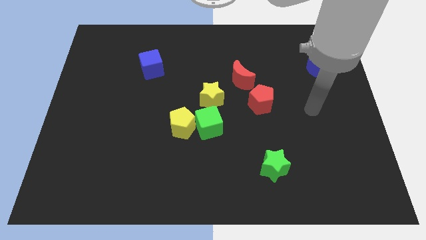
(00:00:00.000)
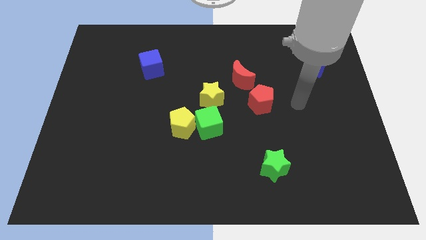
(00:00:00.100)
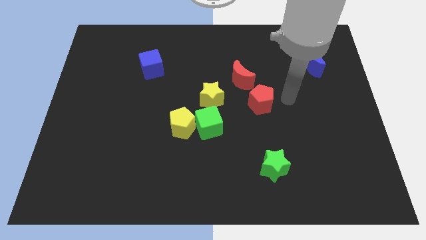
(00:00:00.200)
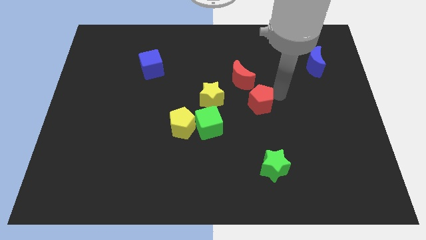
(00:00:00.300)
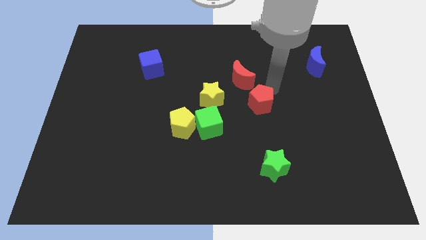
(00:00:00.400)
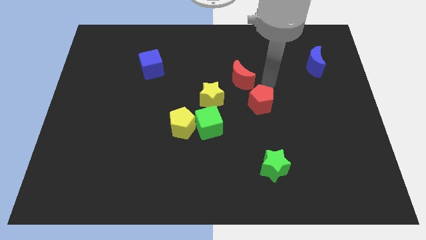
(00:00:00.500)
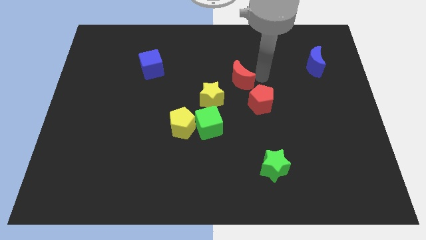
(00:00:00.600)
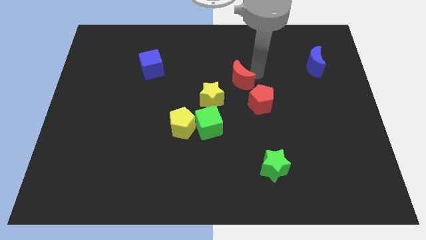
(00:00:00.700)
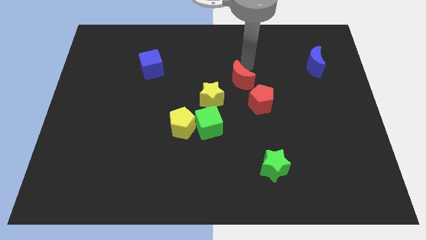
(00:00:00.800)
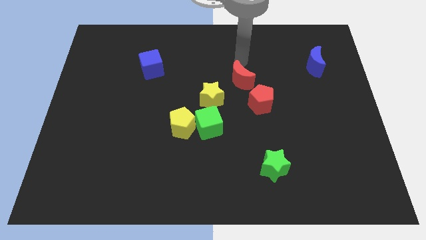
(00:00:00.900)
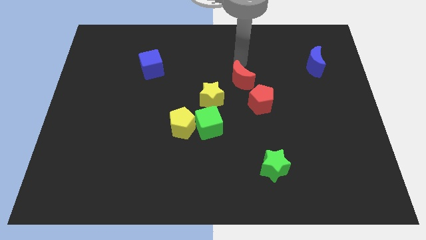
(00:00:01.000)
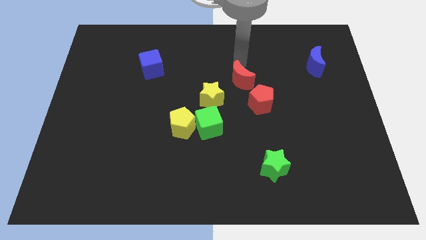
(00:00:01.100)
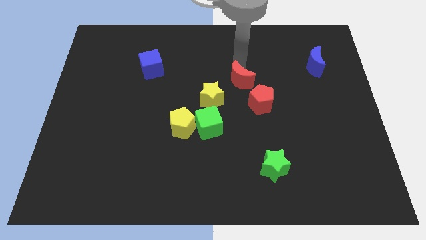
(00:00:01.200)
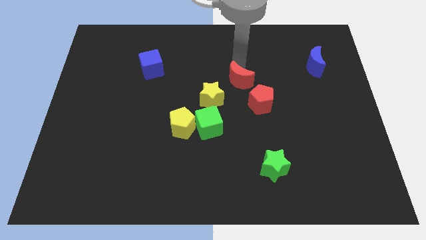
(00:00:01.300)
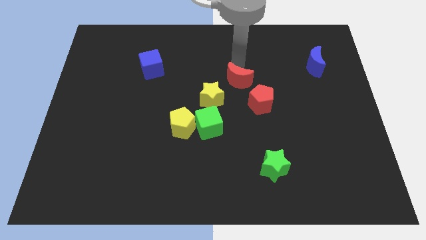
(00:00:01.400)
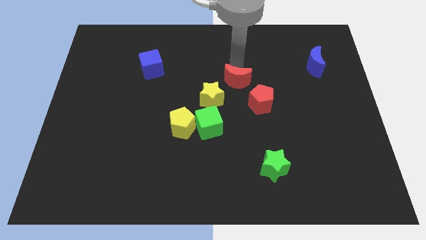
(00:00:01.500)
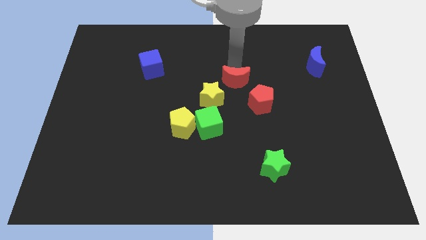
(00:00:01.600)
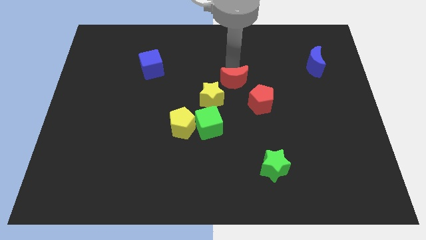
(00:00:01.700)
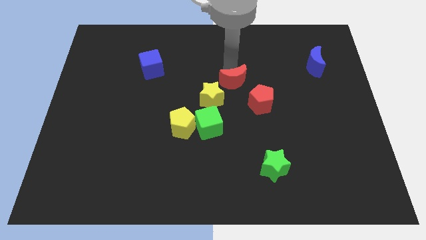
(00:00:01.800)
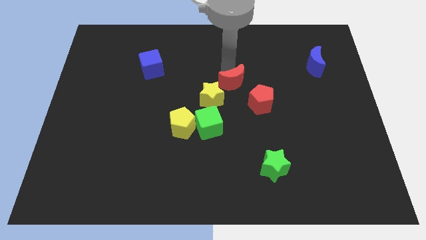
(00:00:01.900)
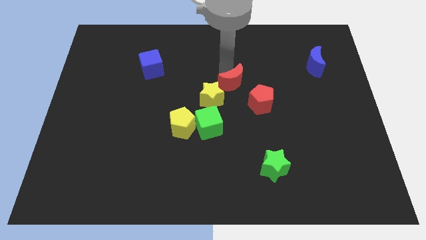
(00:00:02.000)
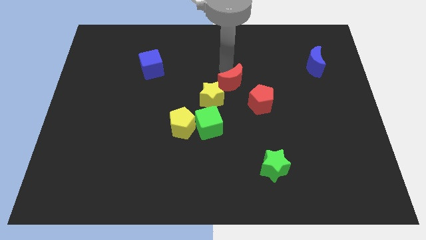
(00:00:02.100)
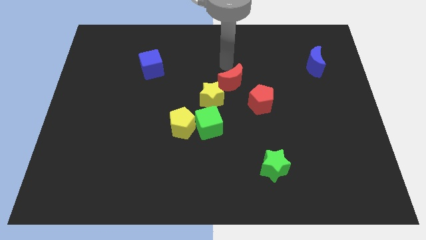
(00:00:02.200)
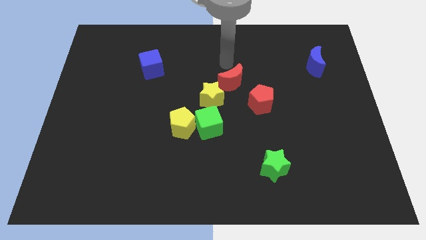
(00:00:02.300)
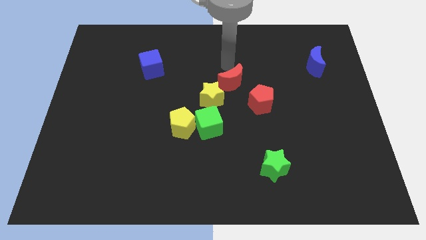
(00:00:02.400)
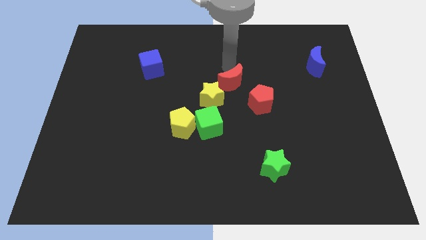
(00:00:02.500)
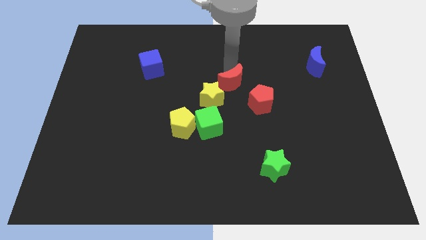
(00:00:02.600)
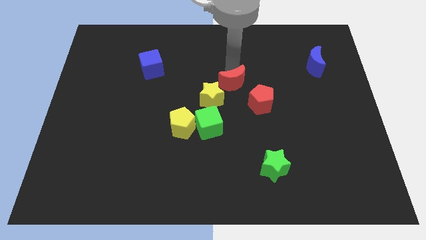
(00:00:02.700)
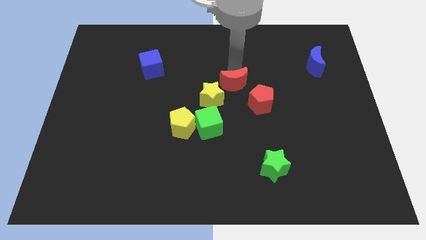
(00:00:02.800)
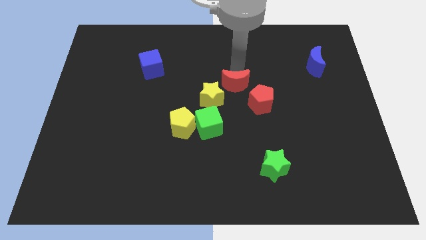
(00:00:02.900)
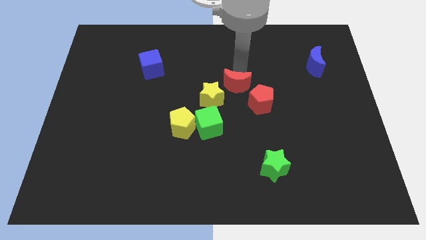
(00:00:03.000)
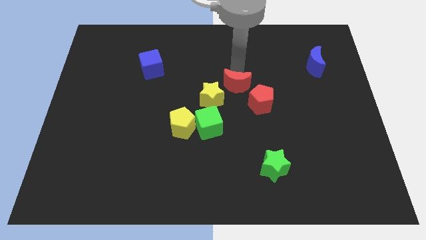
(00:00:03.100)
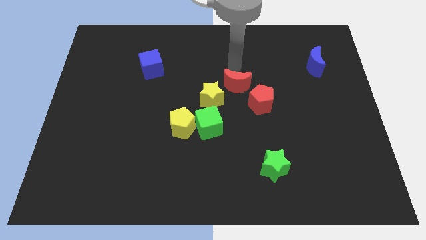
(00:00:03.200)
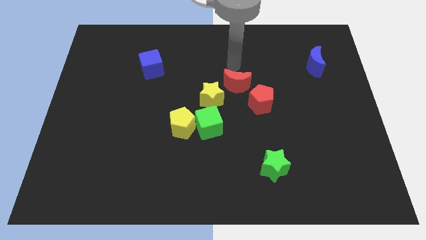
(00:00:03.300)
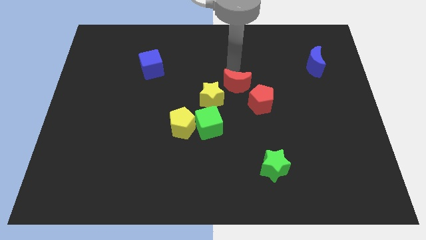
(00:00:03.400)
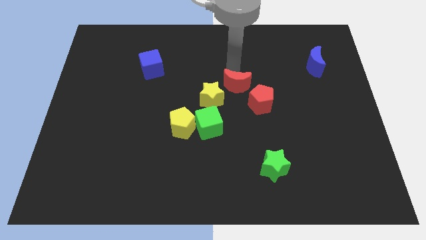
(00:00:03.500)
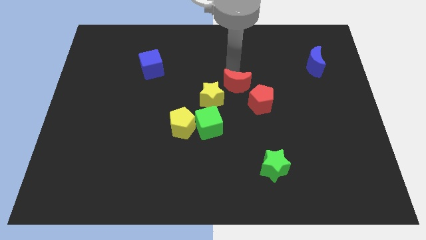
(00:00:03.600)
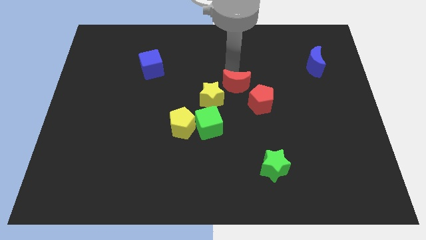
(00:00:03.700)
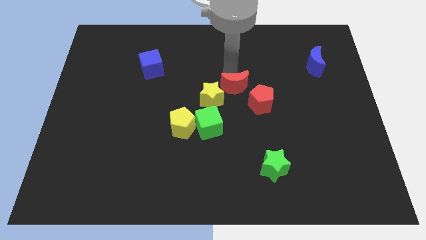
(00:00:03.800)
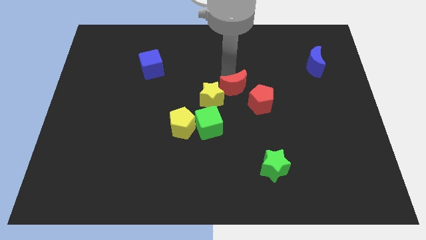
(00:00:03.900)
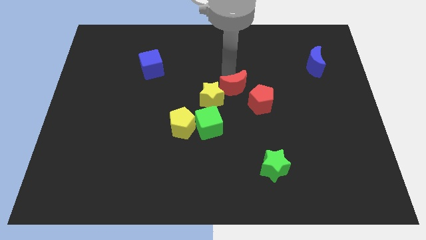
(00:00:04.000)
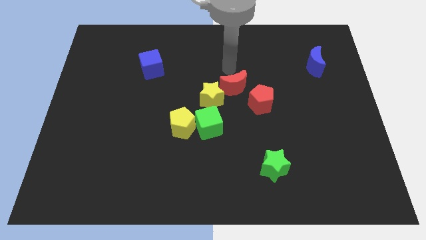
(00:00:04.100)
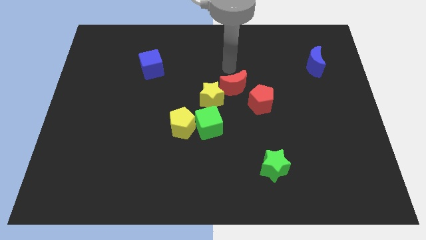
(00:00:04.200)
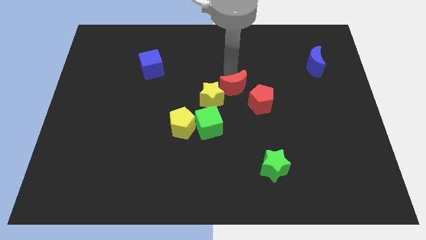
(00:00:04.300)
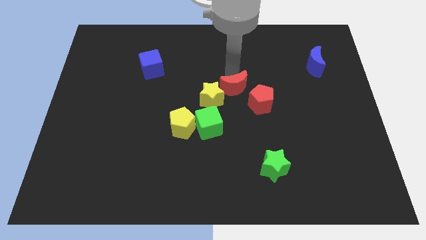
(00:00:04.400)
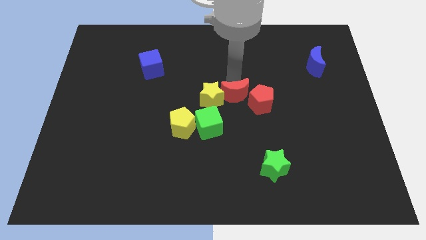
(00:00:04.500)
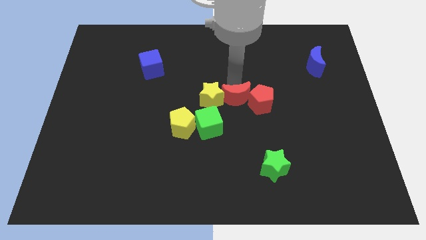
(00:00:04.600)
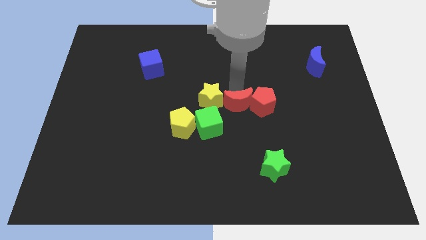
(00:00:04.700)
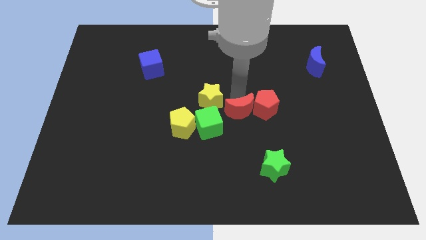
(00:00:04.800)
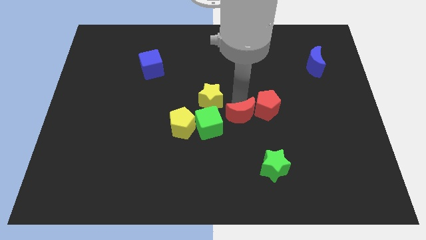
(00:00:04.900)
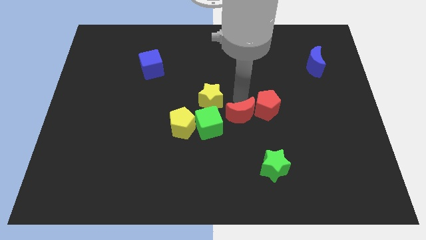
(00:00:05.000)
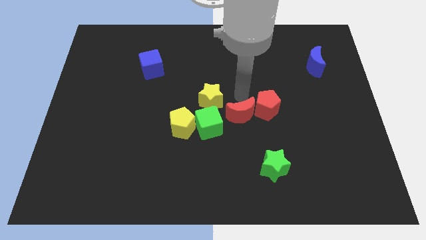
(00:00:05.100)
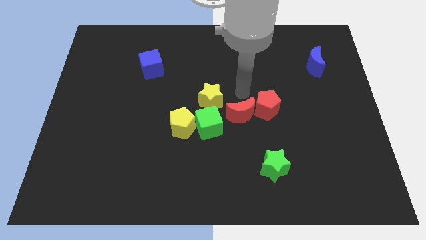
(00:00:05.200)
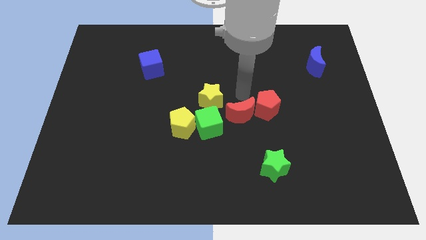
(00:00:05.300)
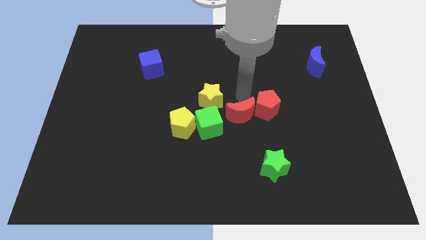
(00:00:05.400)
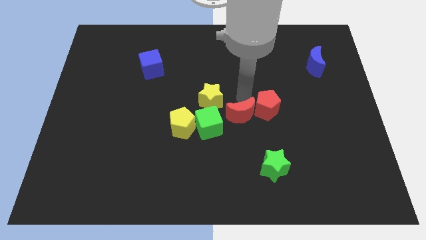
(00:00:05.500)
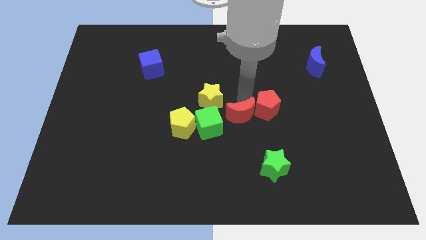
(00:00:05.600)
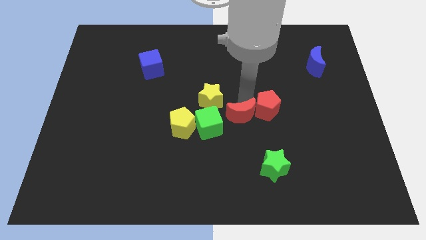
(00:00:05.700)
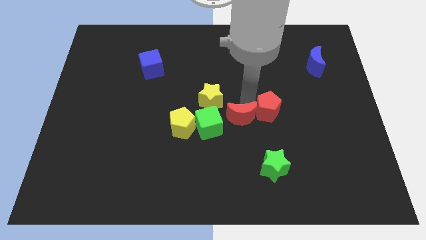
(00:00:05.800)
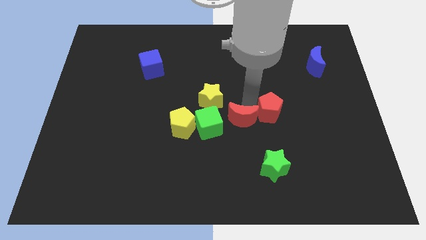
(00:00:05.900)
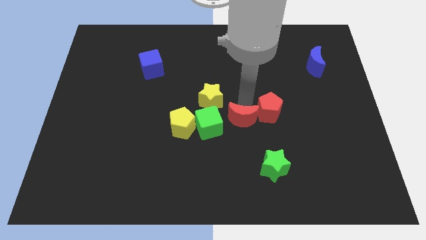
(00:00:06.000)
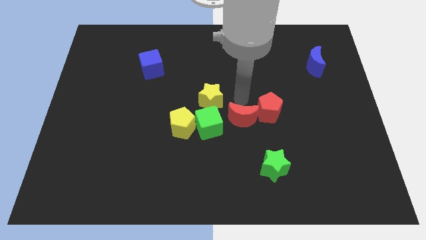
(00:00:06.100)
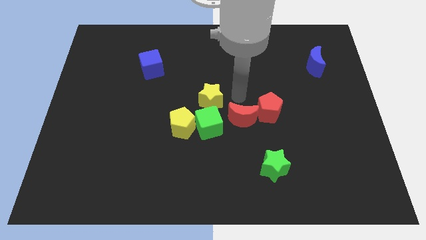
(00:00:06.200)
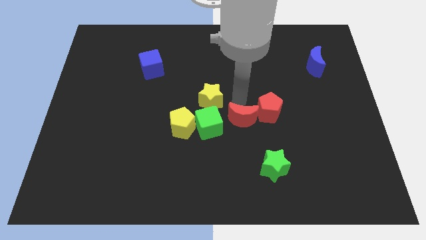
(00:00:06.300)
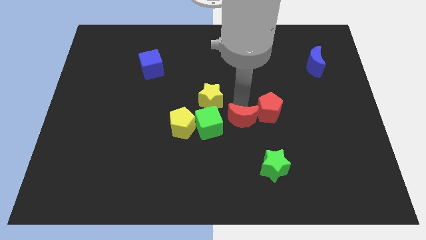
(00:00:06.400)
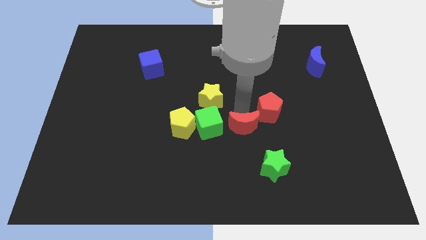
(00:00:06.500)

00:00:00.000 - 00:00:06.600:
slide the red moon to the top left side of the green star

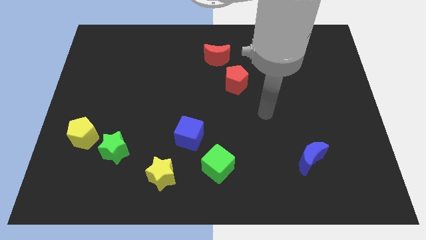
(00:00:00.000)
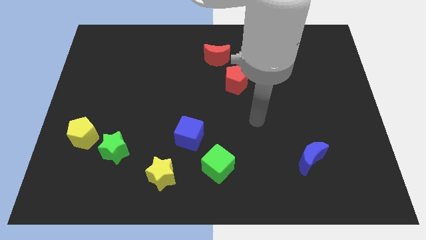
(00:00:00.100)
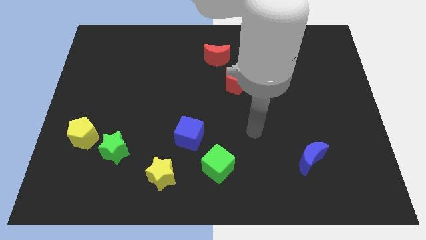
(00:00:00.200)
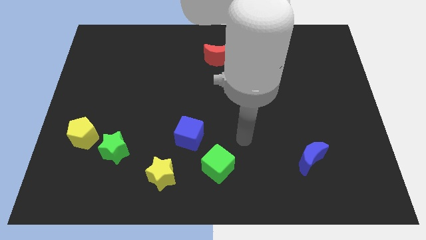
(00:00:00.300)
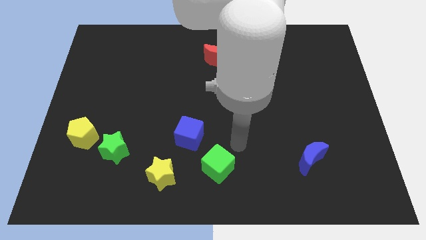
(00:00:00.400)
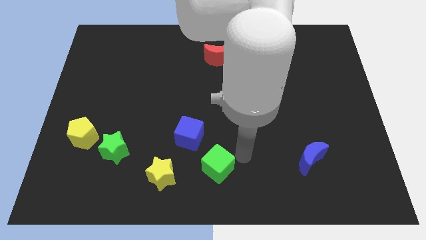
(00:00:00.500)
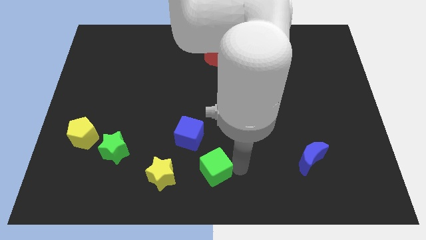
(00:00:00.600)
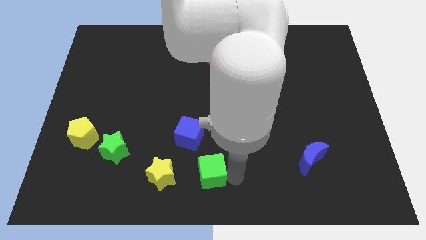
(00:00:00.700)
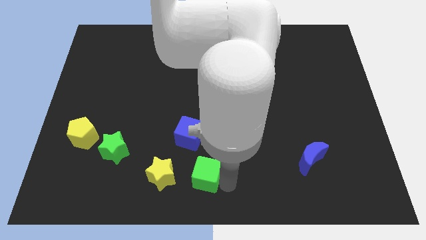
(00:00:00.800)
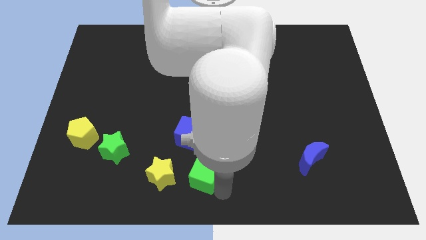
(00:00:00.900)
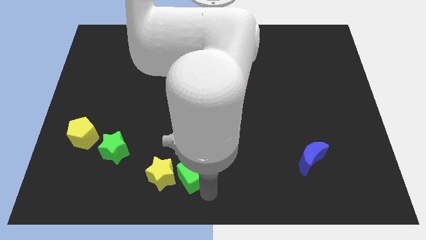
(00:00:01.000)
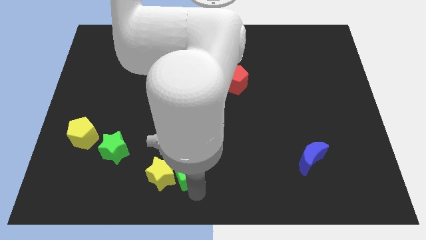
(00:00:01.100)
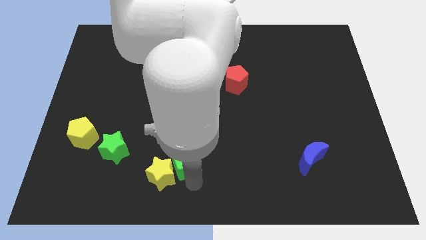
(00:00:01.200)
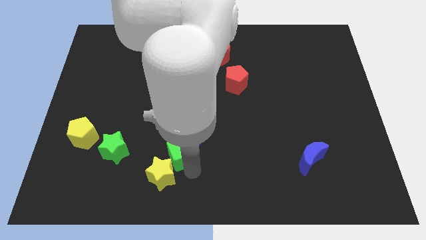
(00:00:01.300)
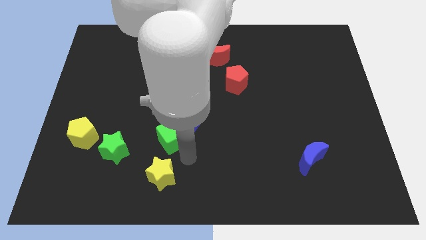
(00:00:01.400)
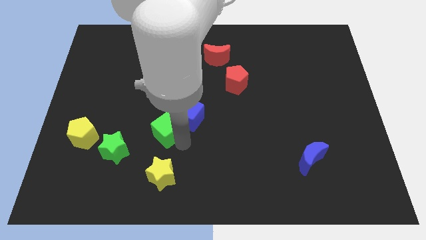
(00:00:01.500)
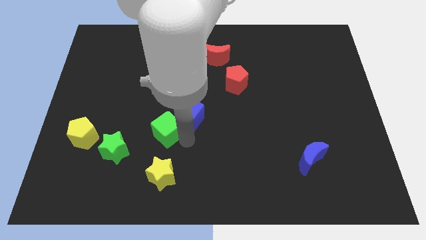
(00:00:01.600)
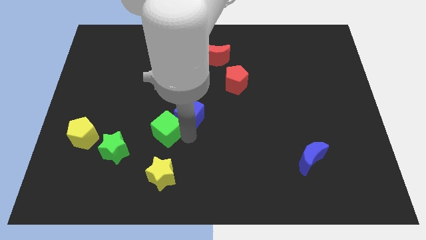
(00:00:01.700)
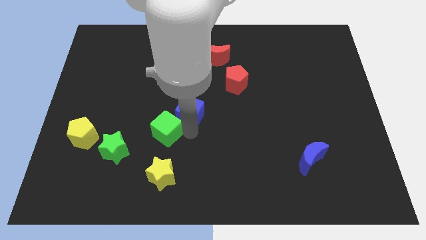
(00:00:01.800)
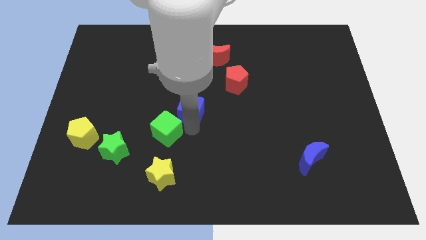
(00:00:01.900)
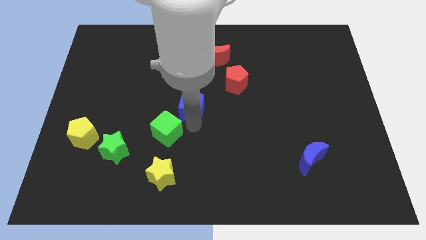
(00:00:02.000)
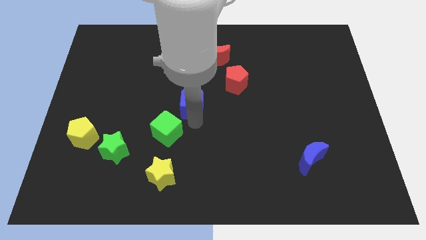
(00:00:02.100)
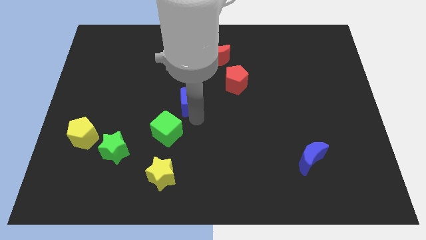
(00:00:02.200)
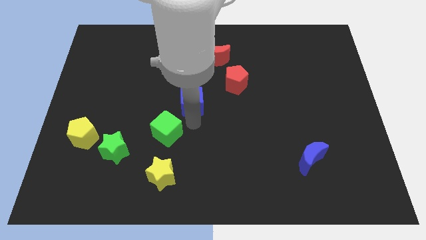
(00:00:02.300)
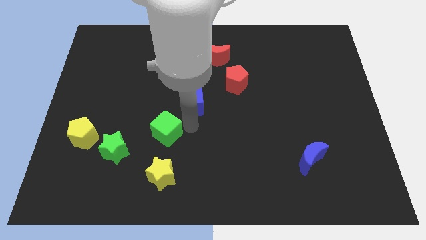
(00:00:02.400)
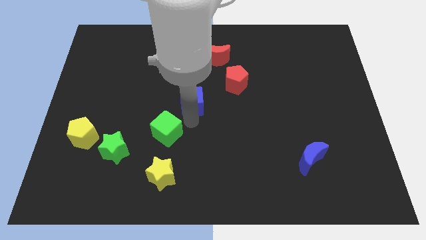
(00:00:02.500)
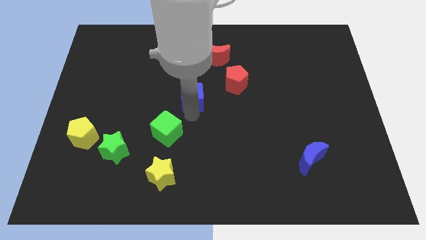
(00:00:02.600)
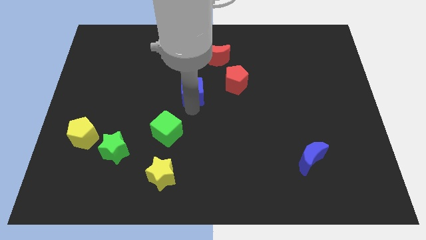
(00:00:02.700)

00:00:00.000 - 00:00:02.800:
slide the blue cube just left of the red pentagon
